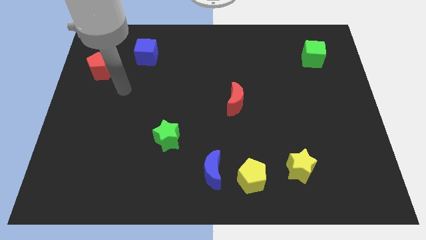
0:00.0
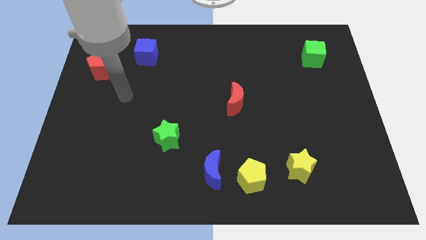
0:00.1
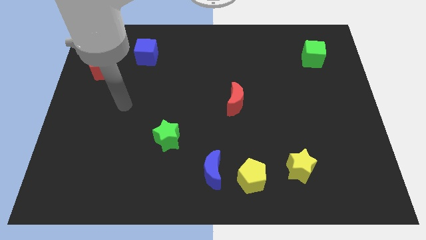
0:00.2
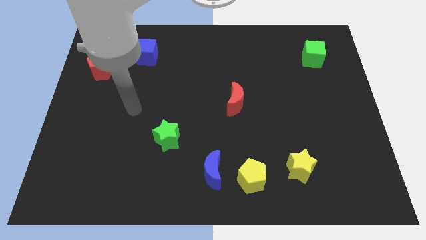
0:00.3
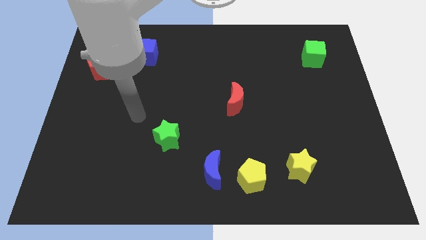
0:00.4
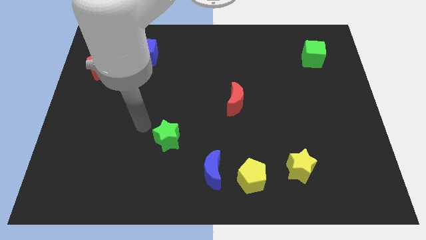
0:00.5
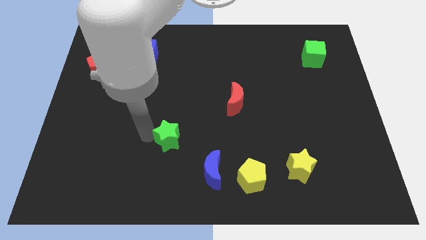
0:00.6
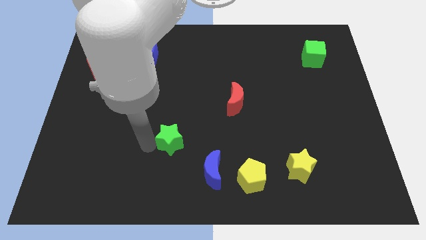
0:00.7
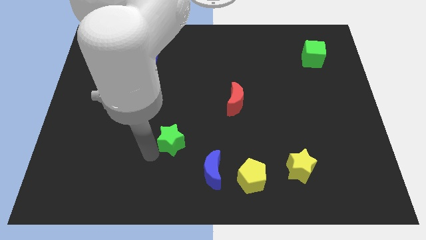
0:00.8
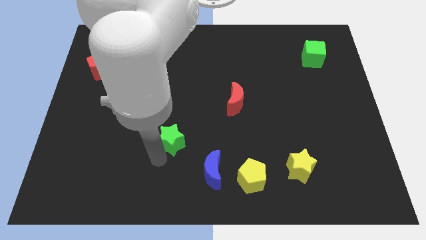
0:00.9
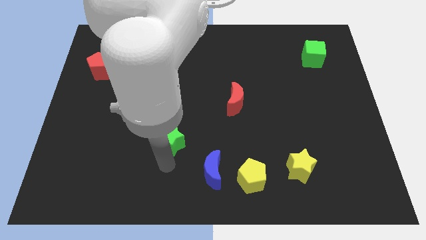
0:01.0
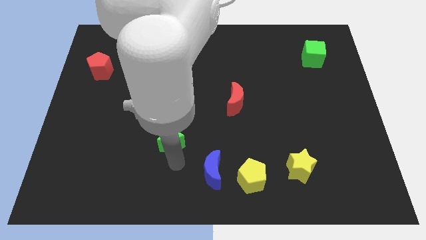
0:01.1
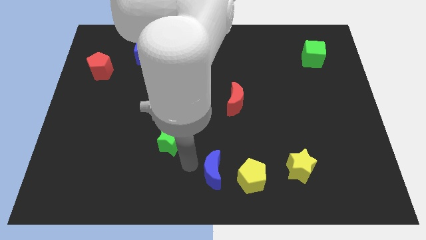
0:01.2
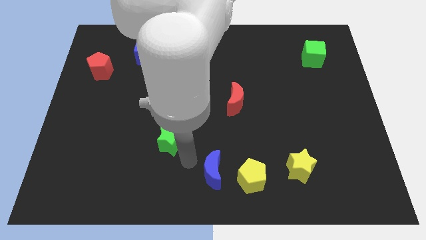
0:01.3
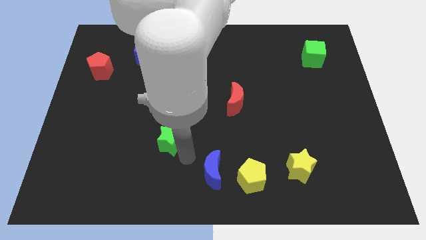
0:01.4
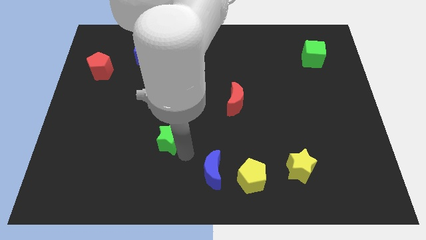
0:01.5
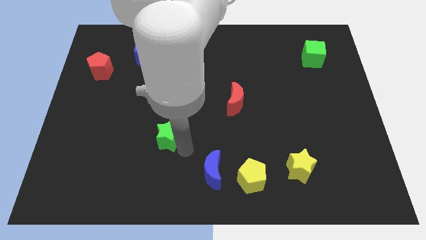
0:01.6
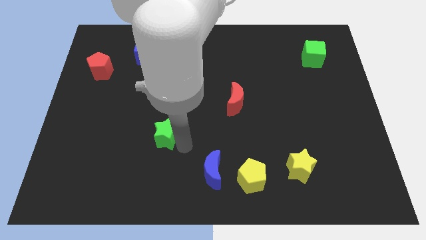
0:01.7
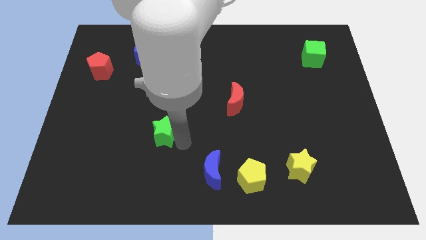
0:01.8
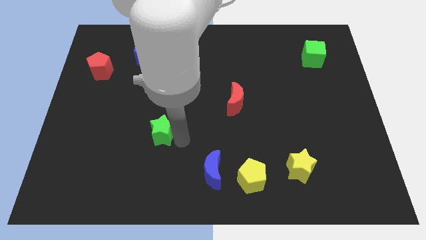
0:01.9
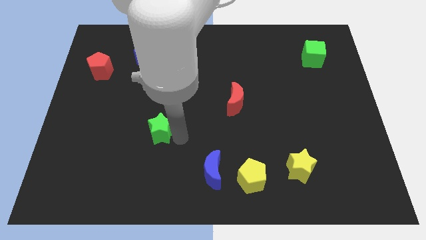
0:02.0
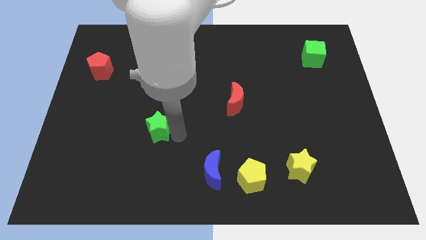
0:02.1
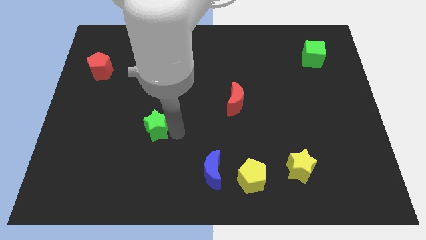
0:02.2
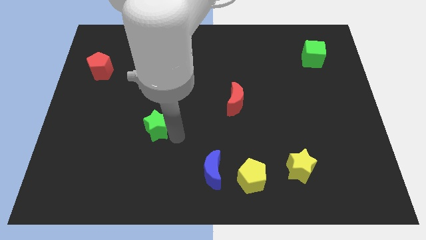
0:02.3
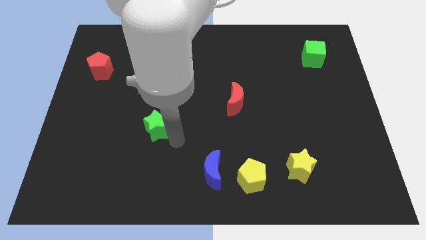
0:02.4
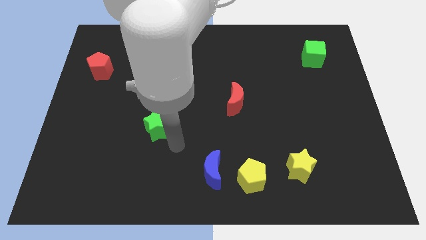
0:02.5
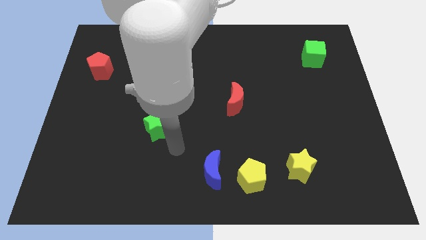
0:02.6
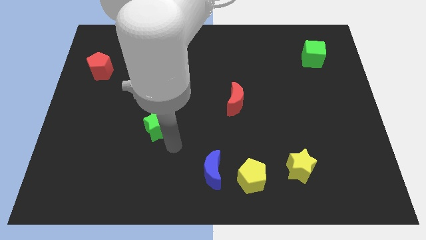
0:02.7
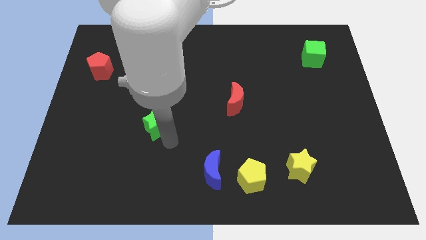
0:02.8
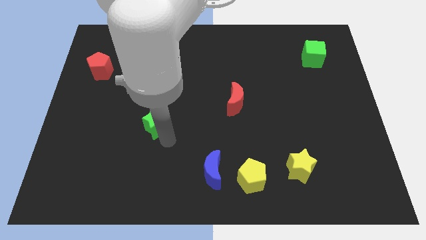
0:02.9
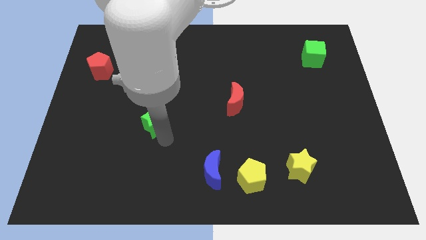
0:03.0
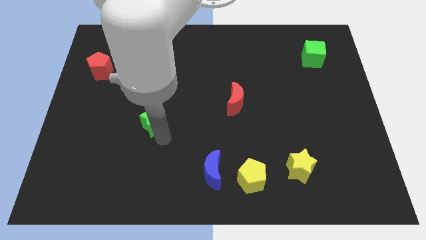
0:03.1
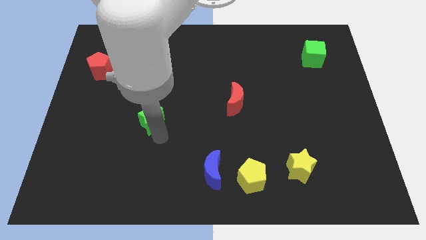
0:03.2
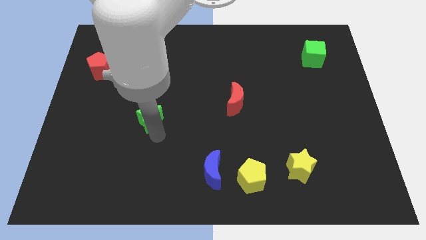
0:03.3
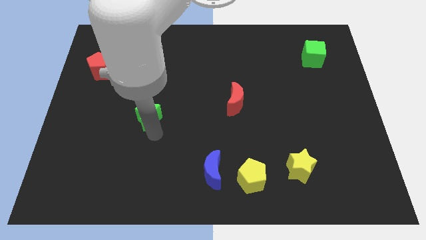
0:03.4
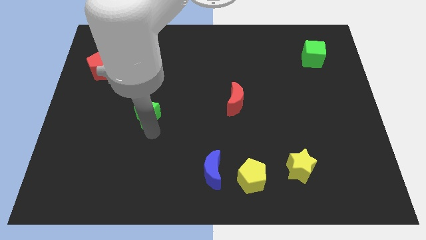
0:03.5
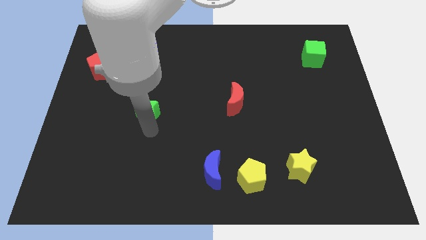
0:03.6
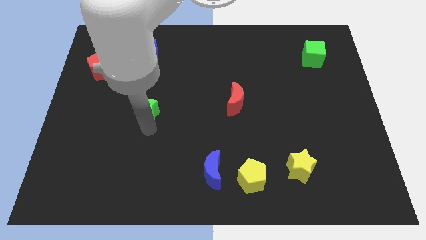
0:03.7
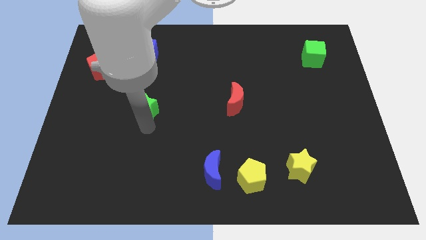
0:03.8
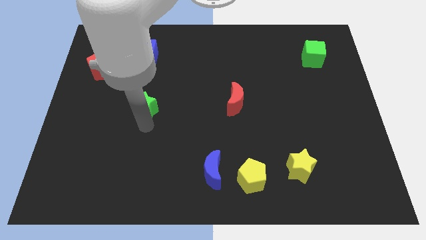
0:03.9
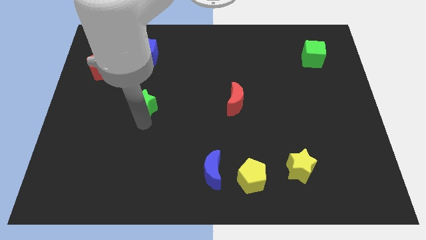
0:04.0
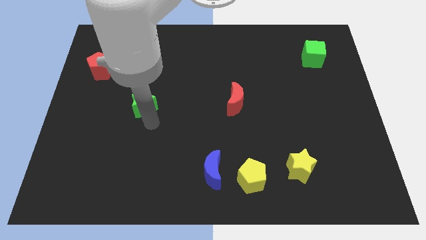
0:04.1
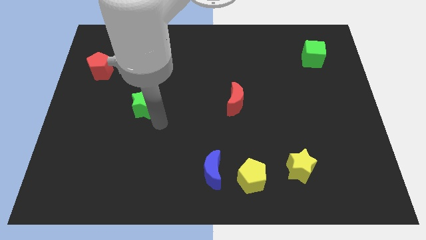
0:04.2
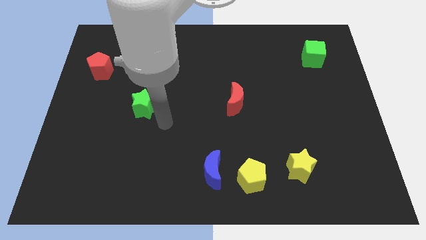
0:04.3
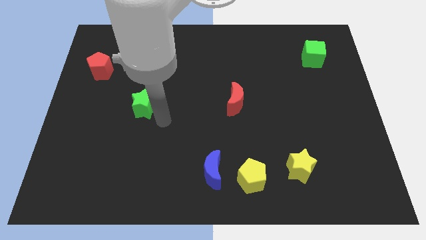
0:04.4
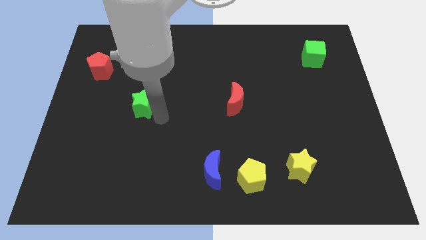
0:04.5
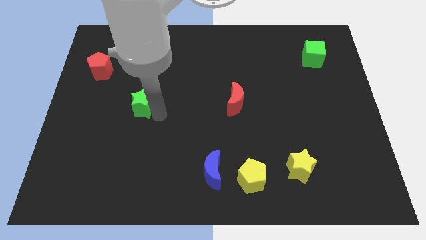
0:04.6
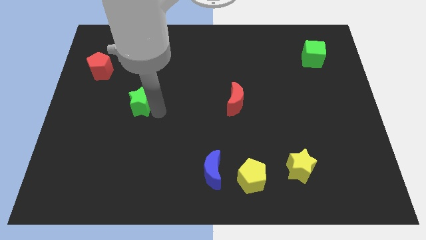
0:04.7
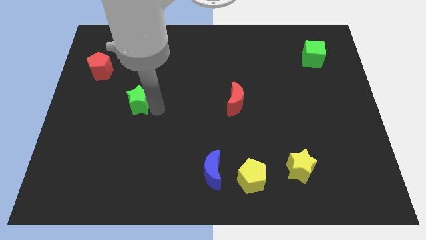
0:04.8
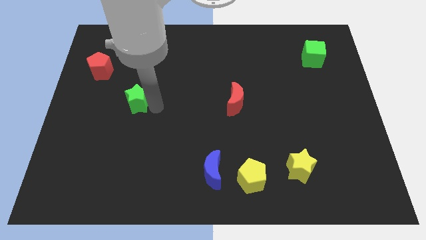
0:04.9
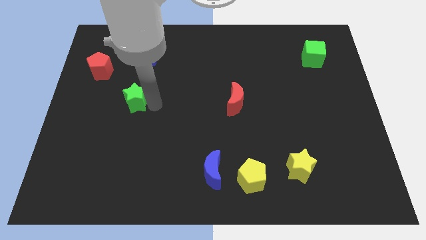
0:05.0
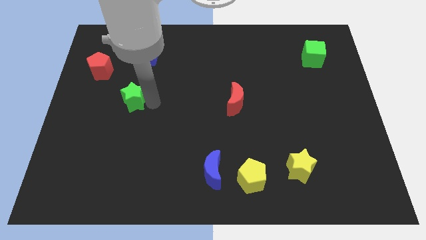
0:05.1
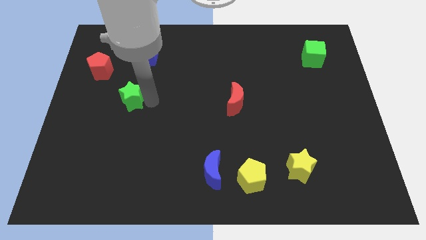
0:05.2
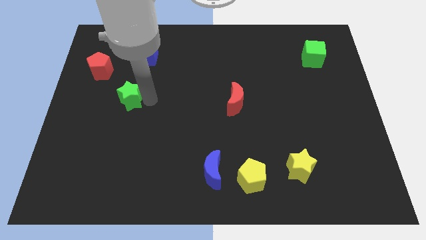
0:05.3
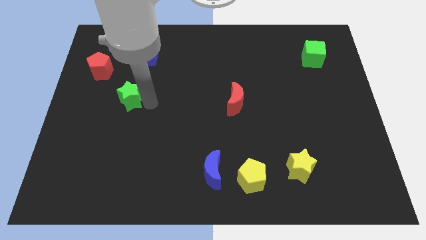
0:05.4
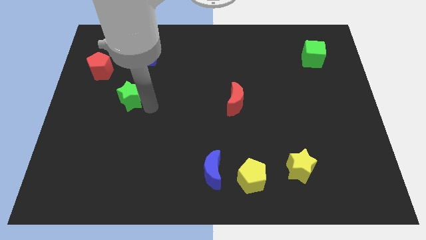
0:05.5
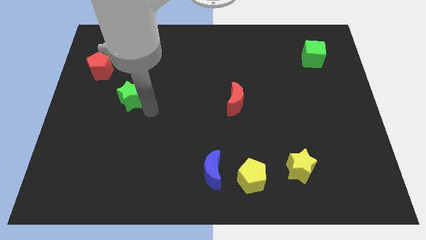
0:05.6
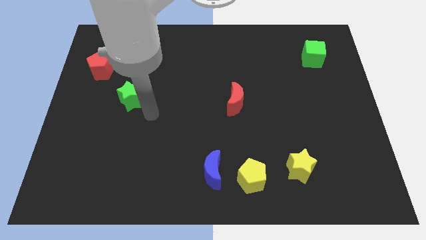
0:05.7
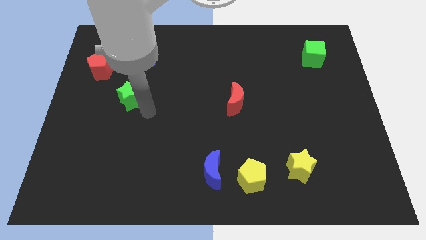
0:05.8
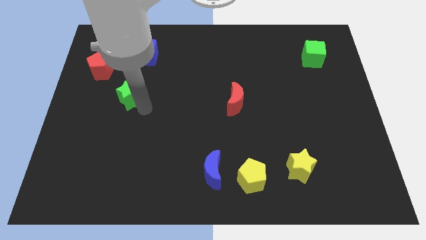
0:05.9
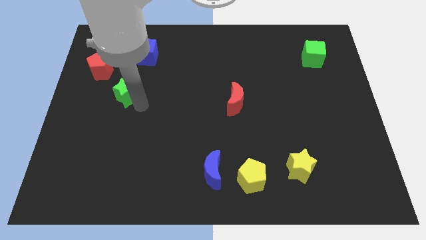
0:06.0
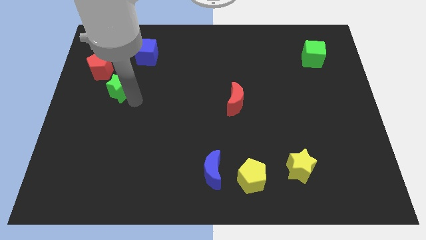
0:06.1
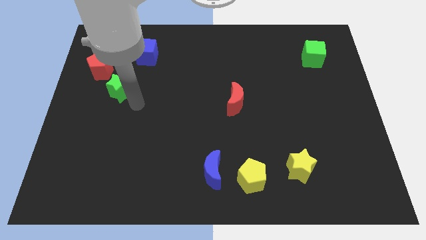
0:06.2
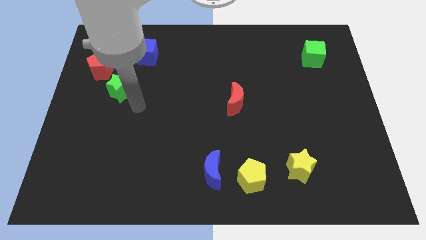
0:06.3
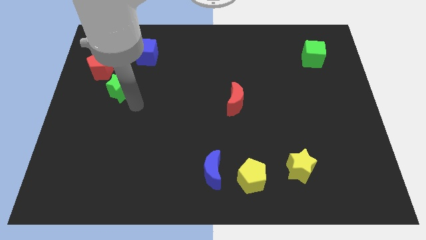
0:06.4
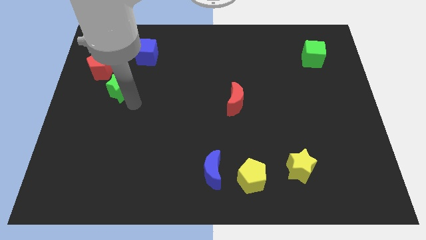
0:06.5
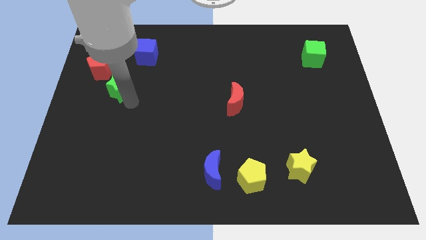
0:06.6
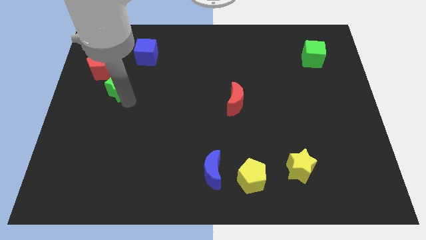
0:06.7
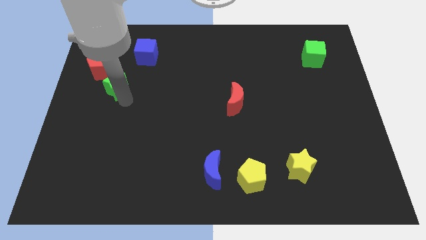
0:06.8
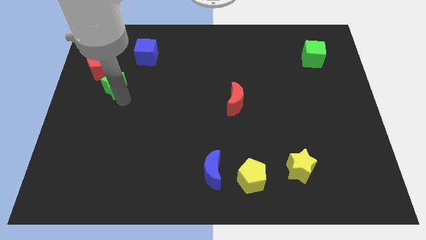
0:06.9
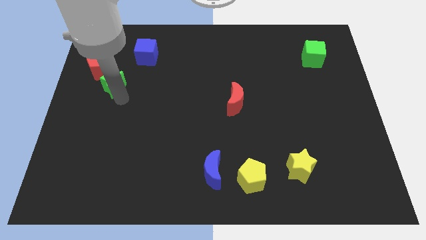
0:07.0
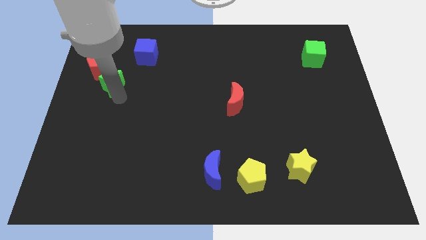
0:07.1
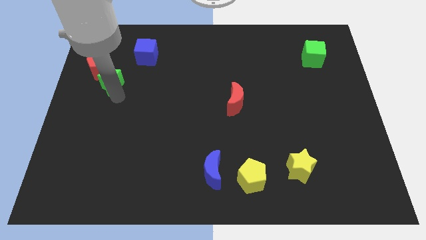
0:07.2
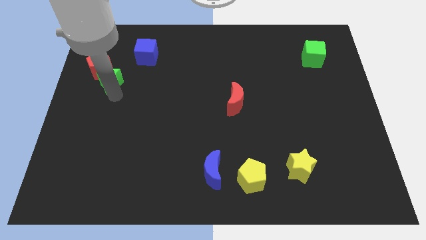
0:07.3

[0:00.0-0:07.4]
slide the green star to the red pentagon

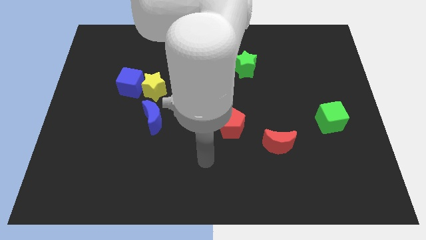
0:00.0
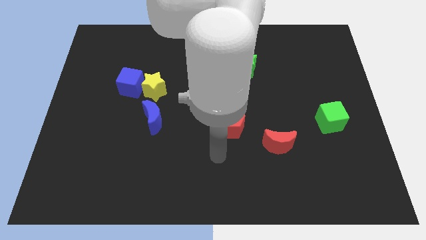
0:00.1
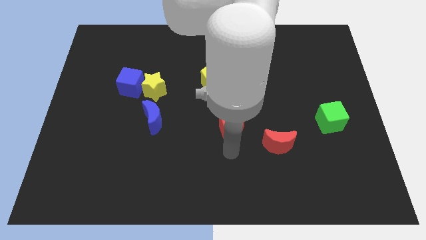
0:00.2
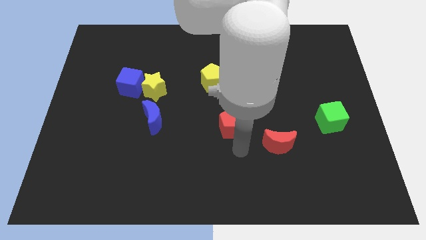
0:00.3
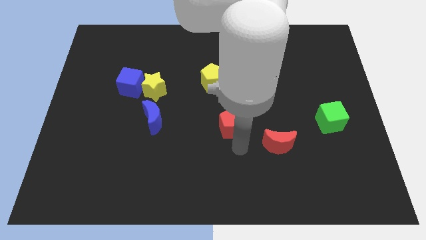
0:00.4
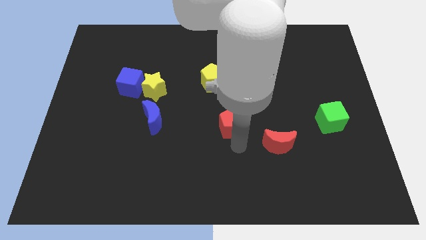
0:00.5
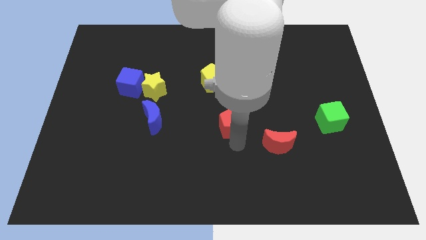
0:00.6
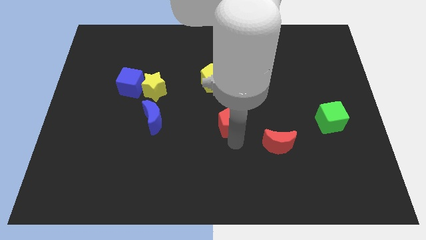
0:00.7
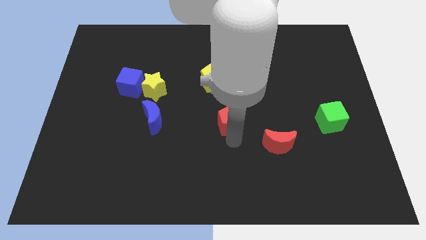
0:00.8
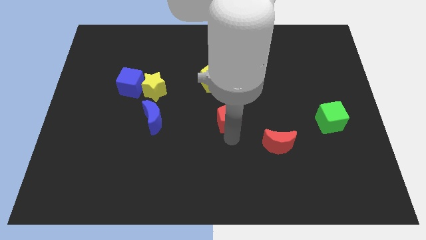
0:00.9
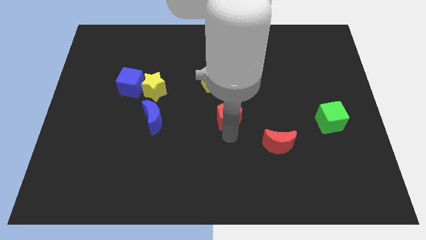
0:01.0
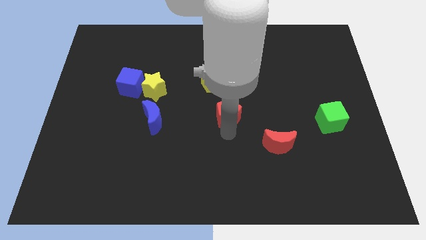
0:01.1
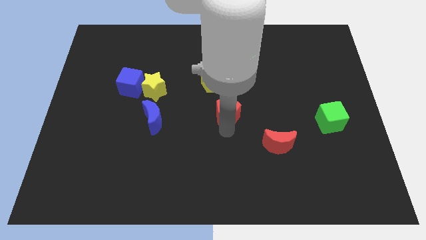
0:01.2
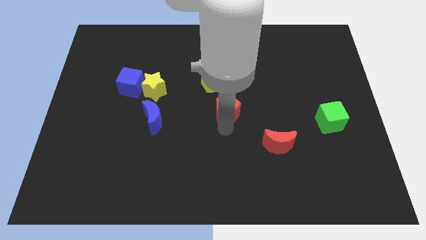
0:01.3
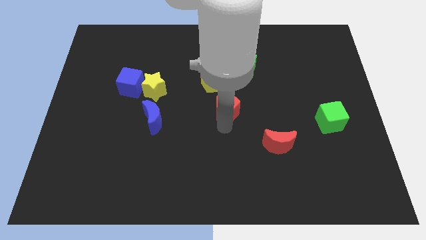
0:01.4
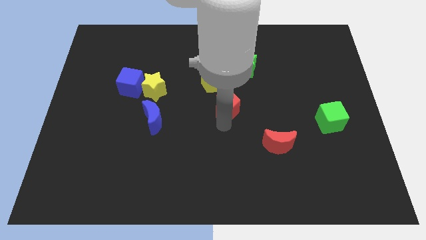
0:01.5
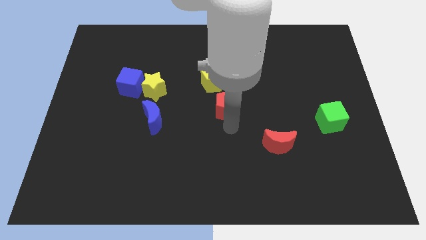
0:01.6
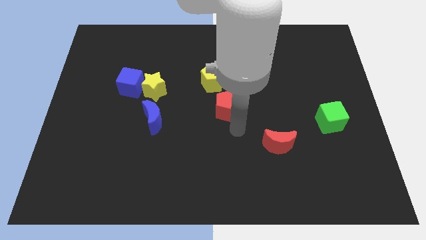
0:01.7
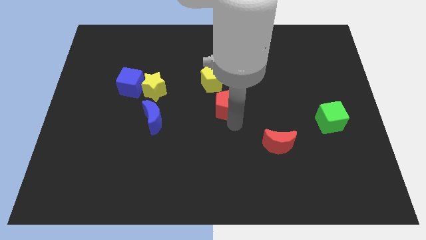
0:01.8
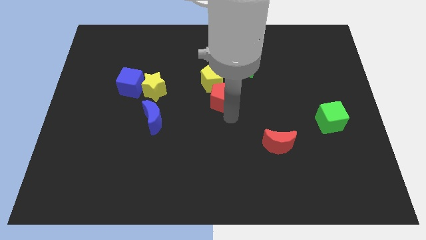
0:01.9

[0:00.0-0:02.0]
put the red pentagon close to the yellow pentagon
